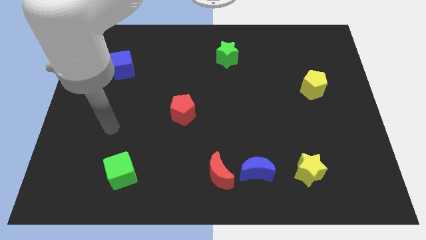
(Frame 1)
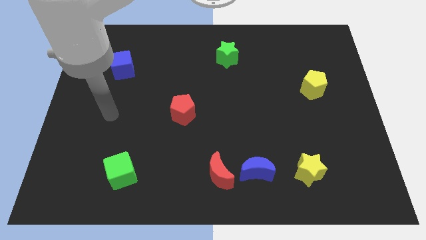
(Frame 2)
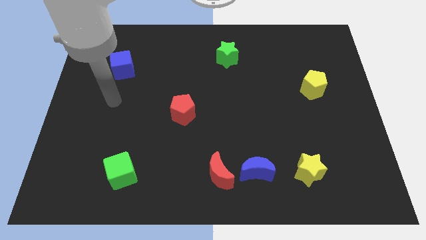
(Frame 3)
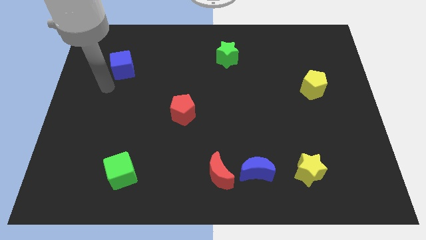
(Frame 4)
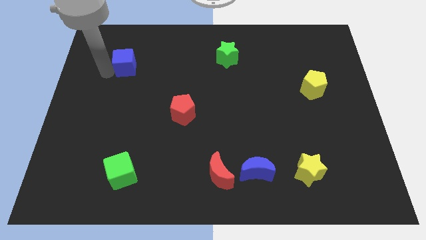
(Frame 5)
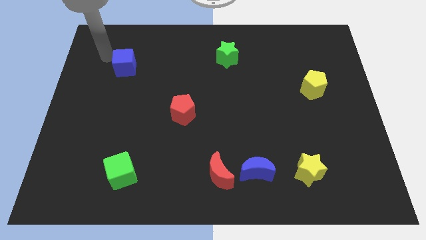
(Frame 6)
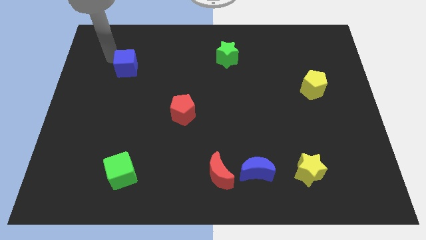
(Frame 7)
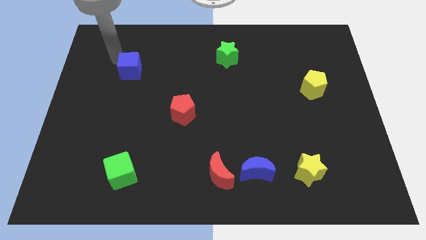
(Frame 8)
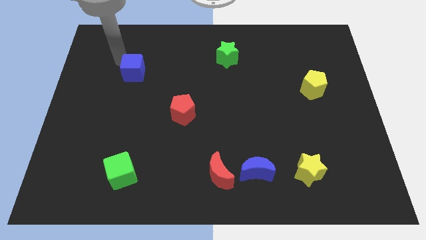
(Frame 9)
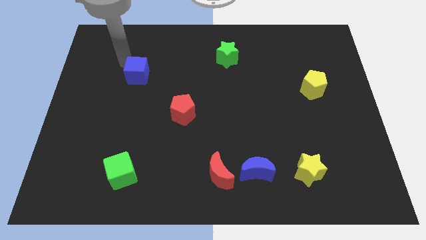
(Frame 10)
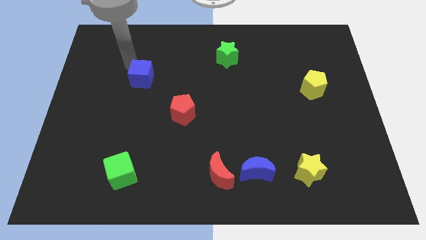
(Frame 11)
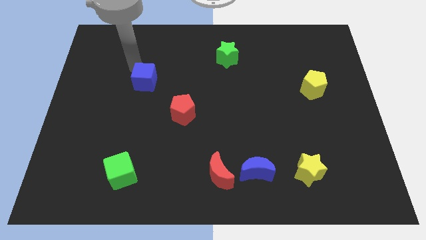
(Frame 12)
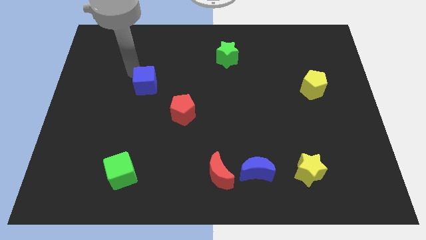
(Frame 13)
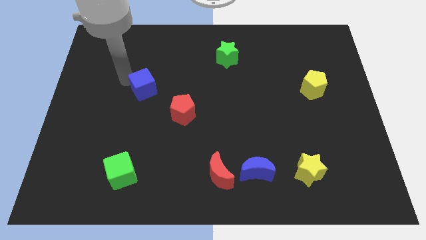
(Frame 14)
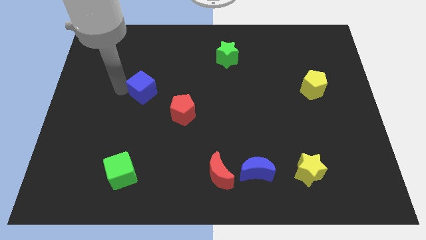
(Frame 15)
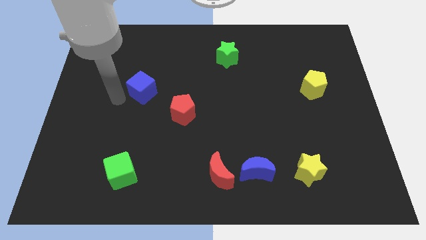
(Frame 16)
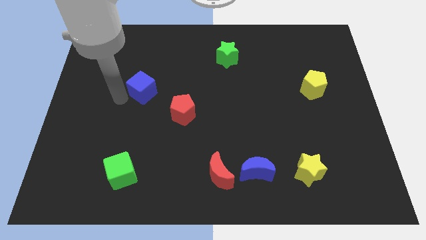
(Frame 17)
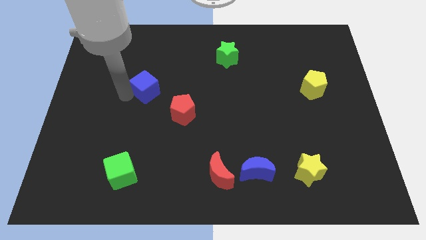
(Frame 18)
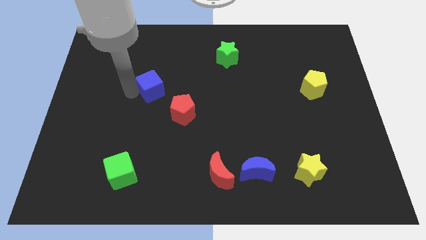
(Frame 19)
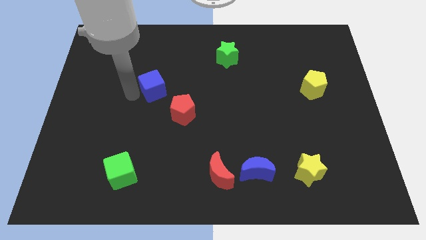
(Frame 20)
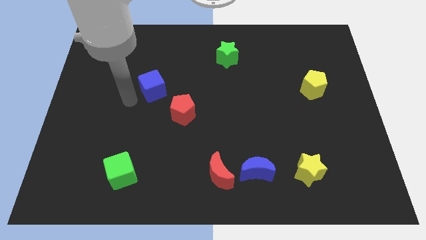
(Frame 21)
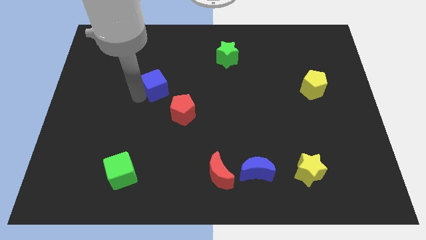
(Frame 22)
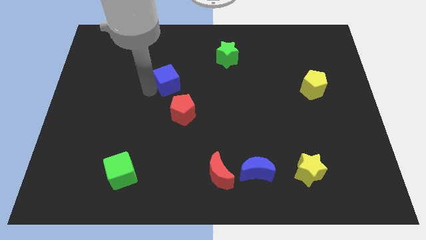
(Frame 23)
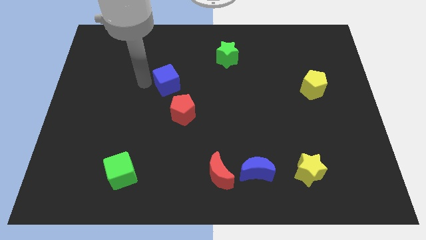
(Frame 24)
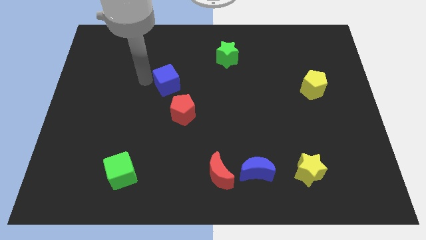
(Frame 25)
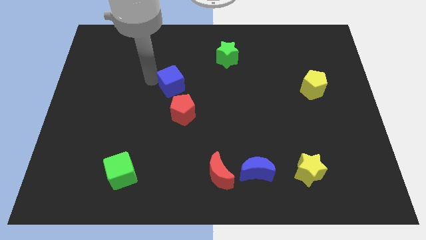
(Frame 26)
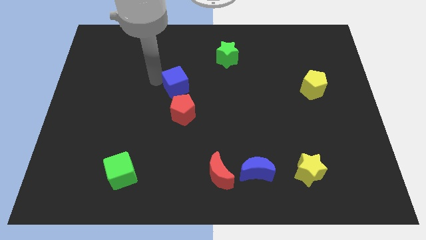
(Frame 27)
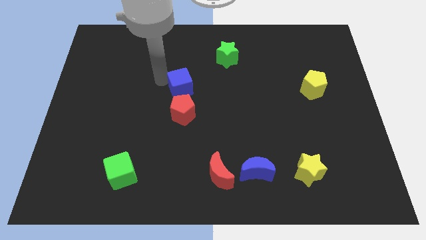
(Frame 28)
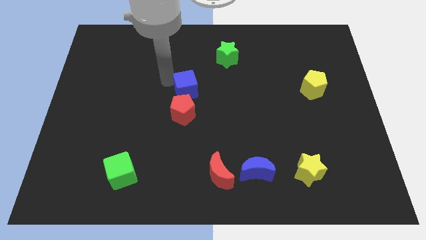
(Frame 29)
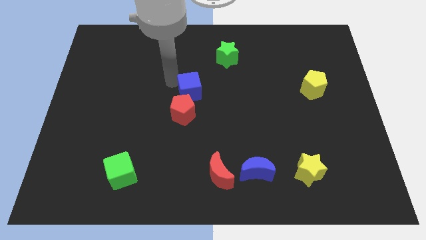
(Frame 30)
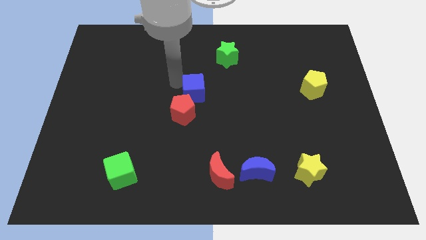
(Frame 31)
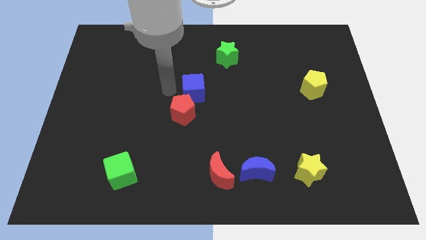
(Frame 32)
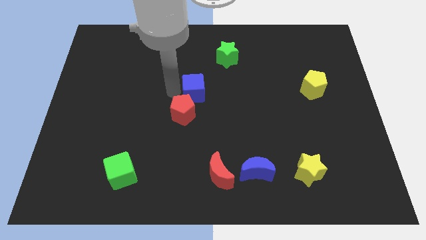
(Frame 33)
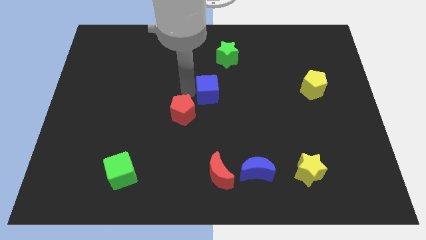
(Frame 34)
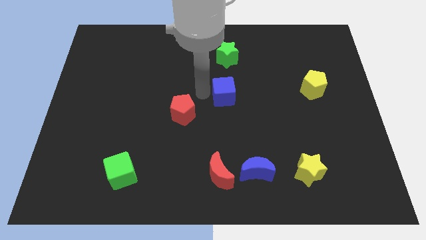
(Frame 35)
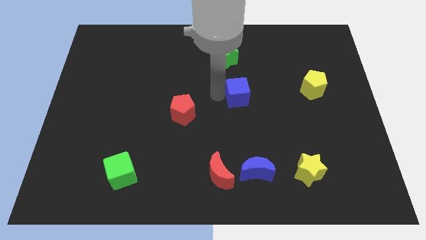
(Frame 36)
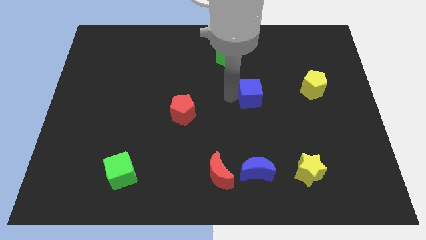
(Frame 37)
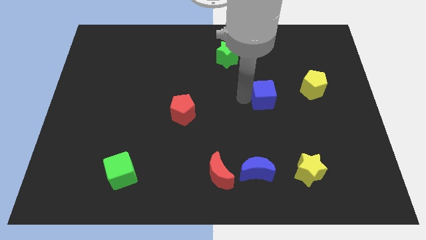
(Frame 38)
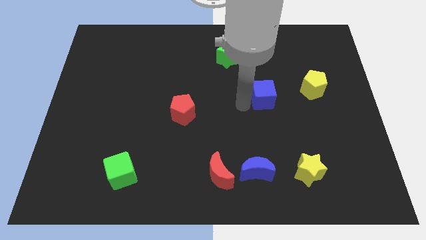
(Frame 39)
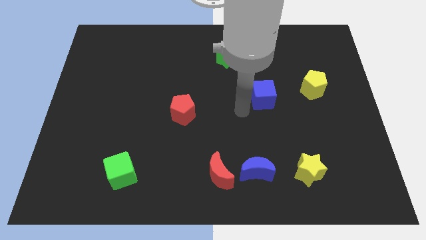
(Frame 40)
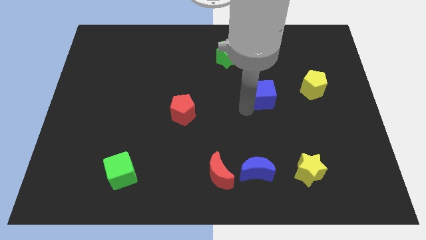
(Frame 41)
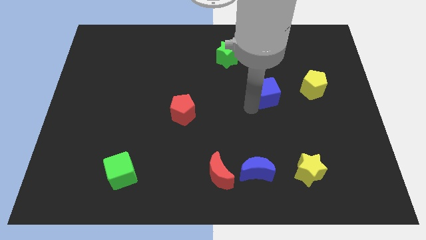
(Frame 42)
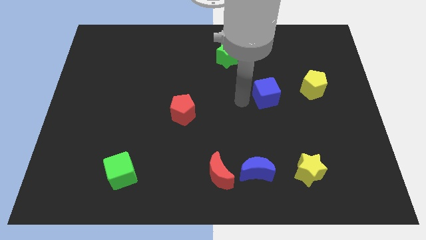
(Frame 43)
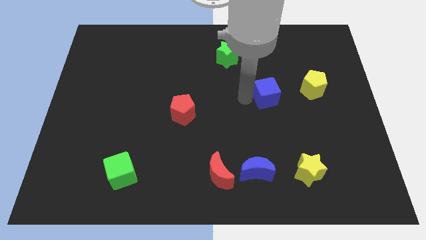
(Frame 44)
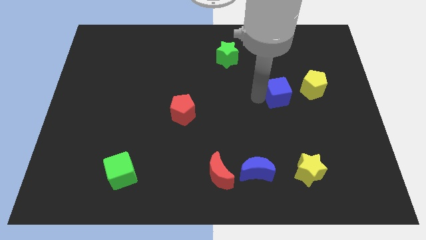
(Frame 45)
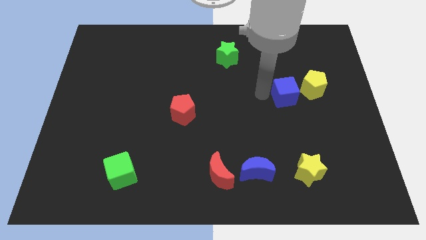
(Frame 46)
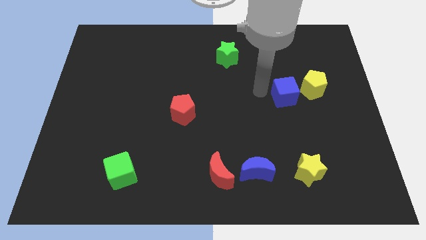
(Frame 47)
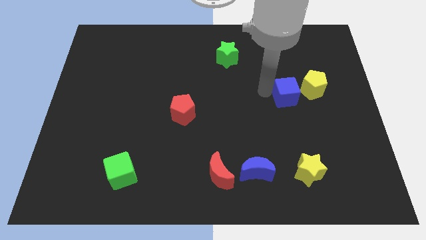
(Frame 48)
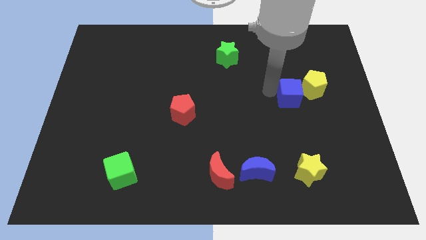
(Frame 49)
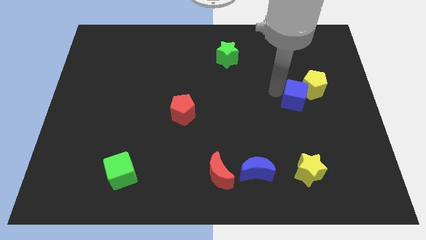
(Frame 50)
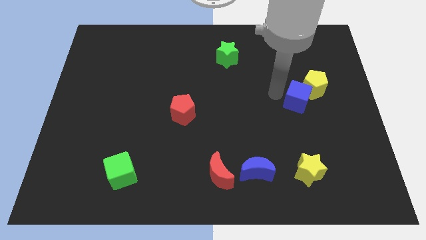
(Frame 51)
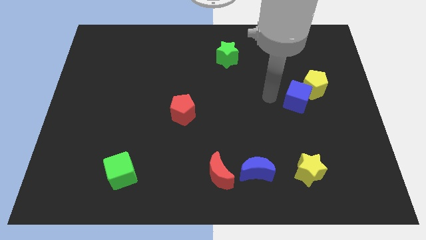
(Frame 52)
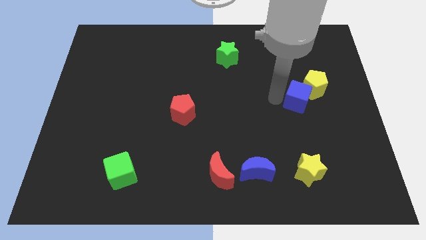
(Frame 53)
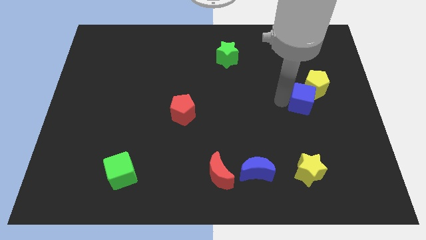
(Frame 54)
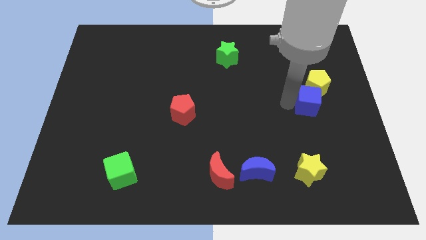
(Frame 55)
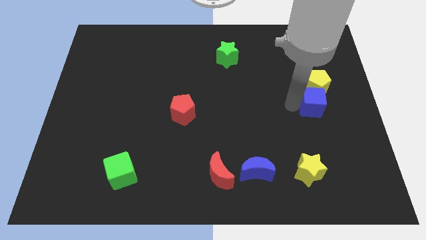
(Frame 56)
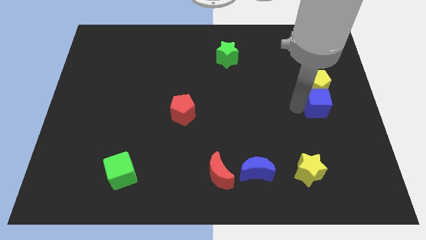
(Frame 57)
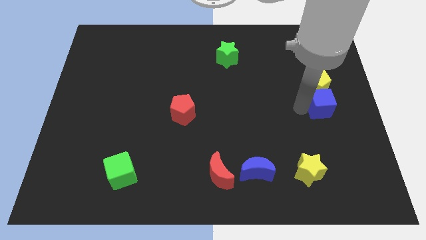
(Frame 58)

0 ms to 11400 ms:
push the blue cube to the right side

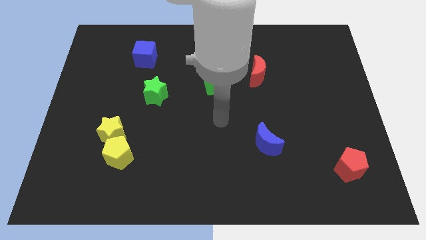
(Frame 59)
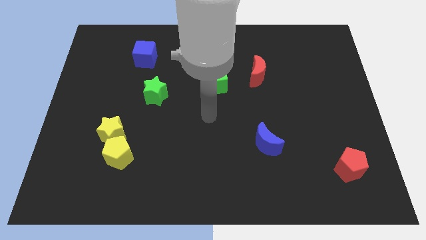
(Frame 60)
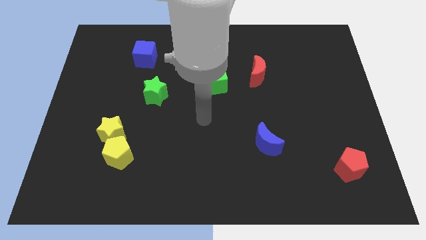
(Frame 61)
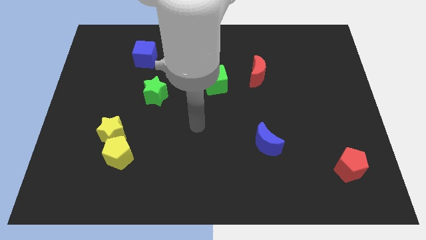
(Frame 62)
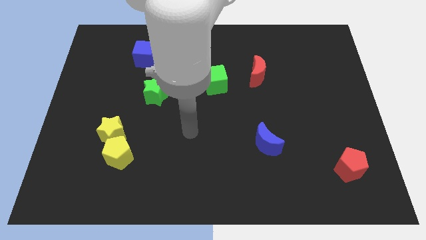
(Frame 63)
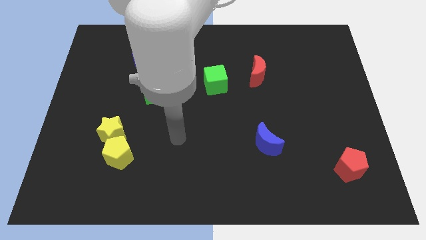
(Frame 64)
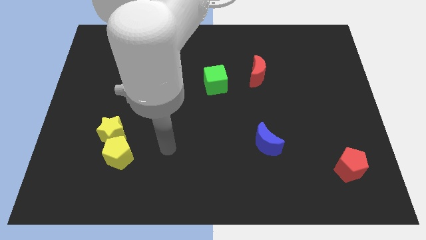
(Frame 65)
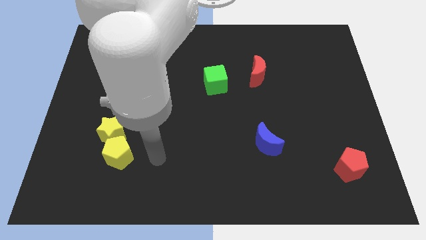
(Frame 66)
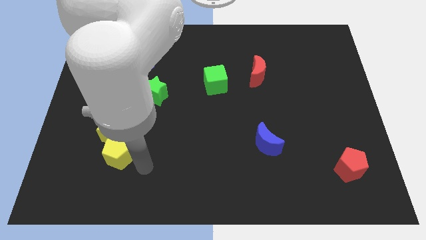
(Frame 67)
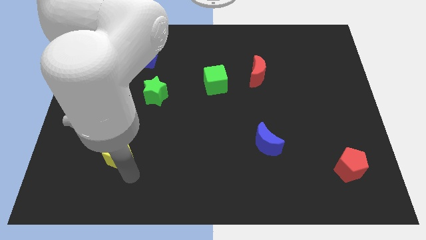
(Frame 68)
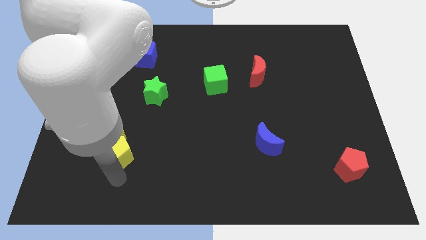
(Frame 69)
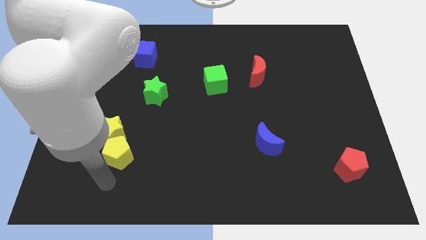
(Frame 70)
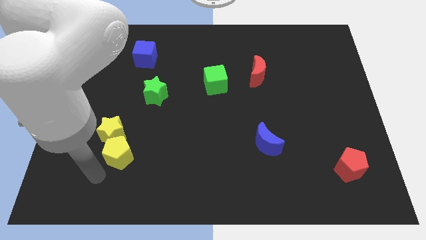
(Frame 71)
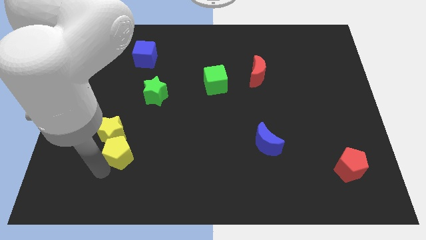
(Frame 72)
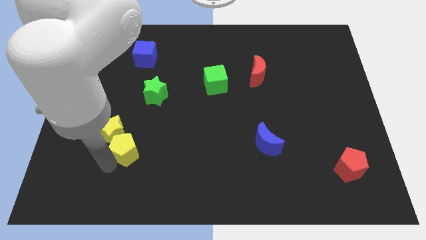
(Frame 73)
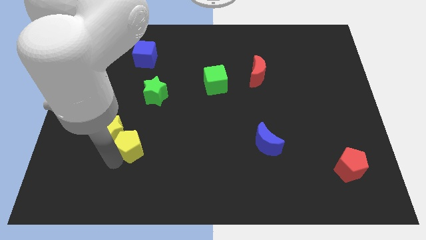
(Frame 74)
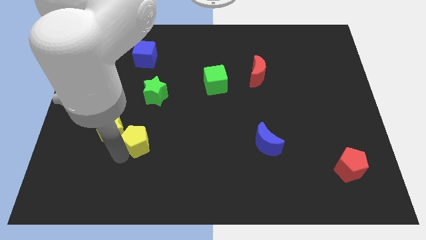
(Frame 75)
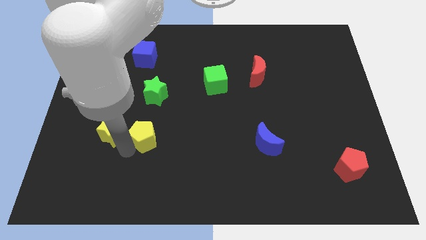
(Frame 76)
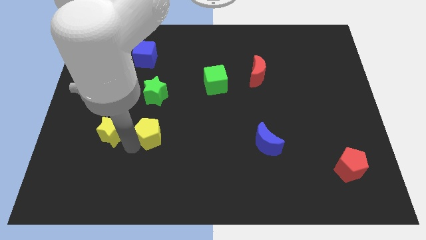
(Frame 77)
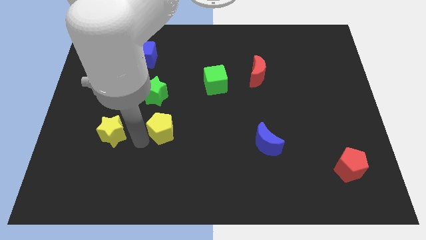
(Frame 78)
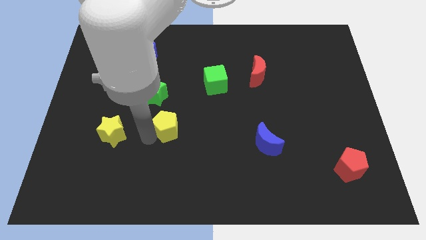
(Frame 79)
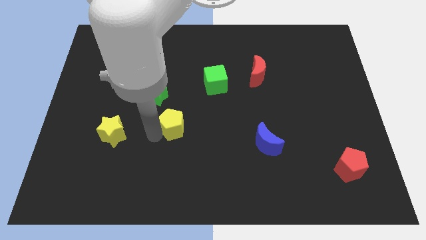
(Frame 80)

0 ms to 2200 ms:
slide the yellow pentagon to the middle

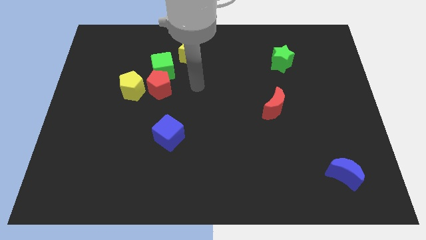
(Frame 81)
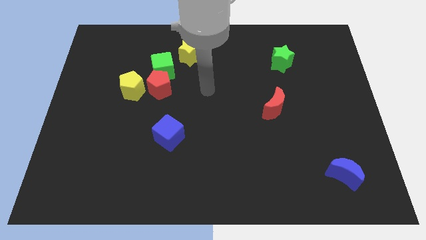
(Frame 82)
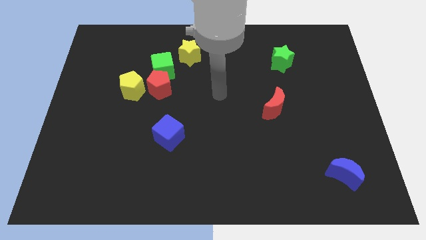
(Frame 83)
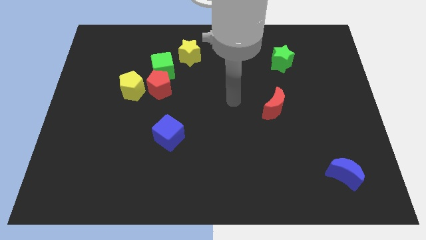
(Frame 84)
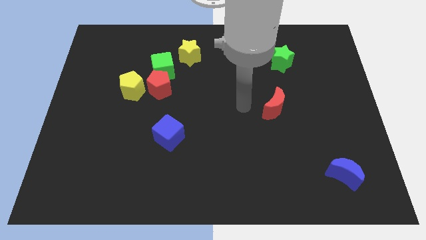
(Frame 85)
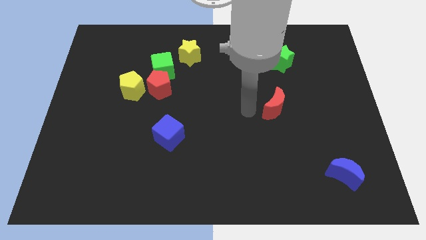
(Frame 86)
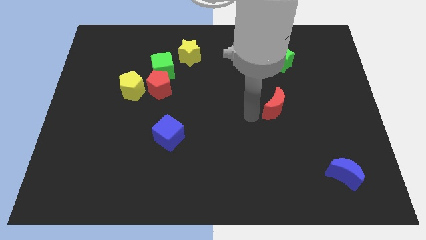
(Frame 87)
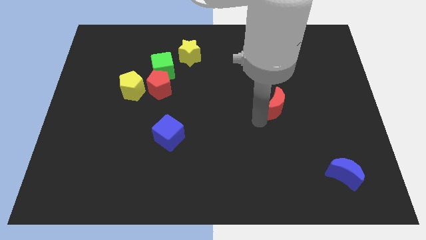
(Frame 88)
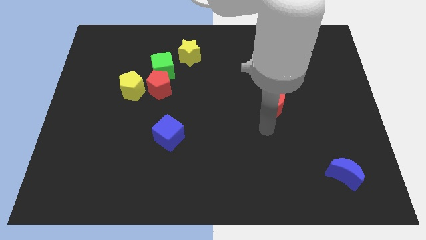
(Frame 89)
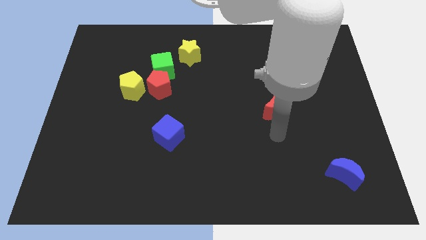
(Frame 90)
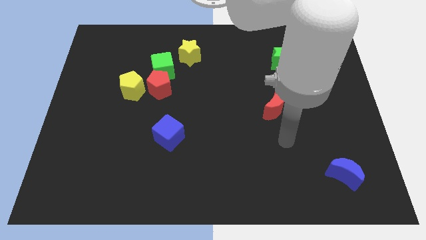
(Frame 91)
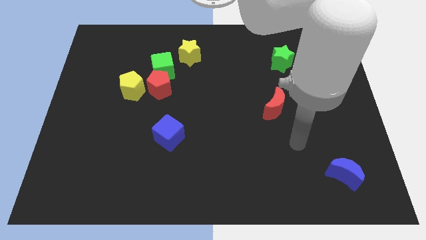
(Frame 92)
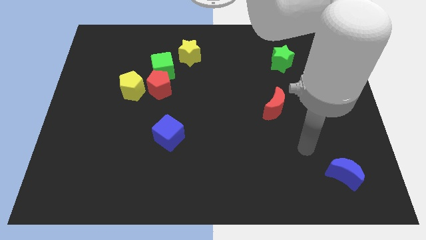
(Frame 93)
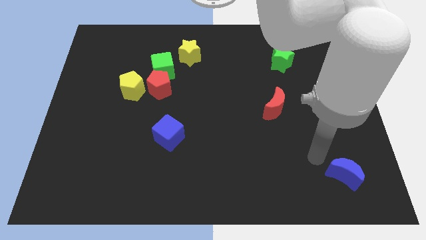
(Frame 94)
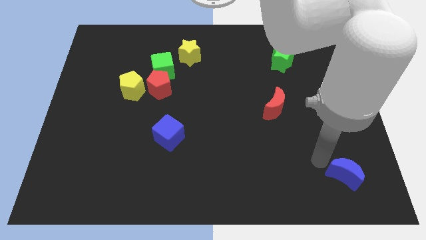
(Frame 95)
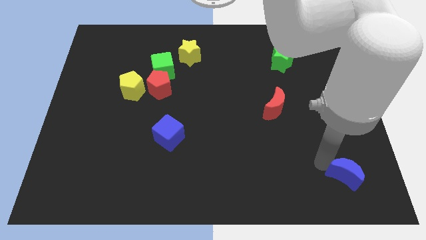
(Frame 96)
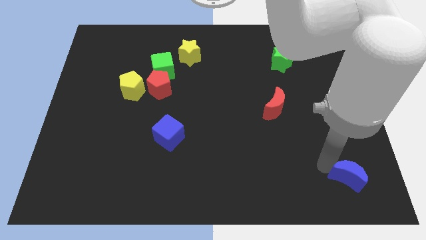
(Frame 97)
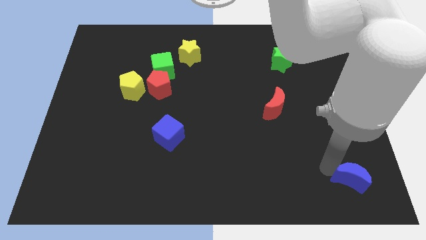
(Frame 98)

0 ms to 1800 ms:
move the blue moon to the bottom right of the board
